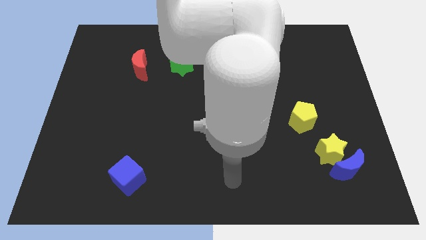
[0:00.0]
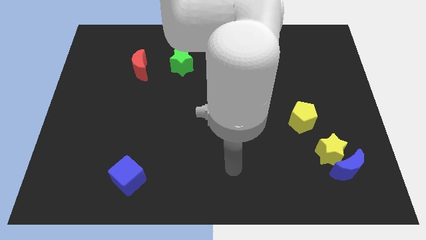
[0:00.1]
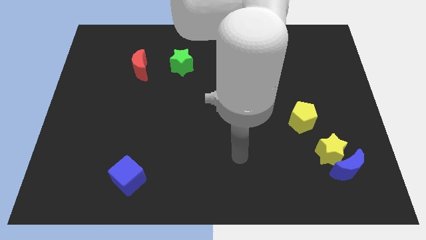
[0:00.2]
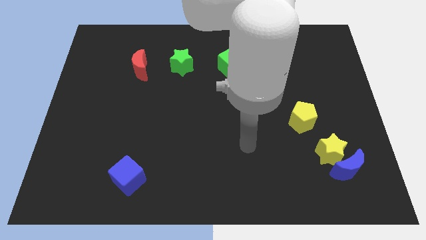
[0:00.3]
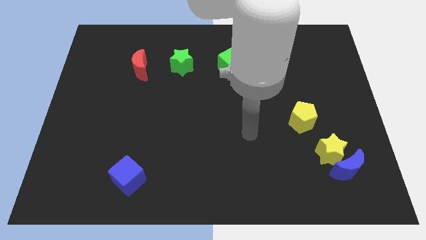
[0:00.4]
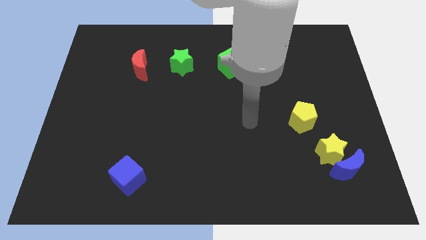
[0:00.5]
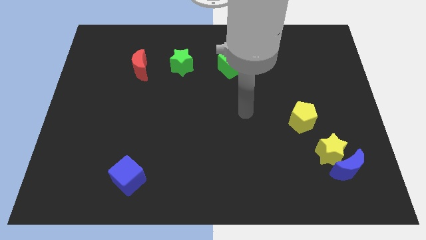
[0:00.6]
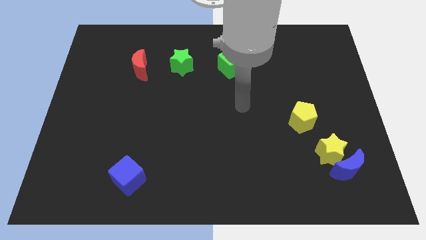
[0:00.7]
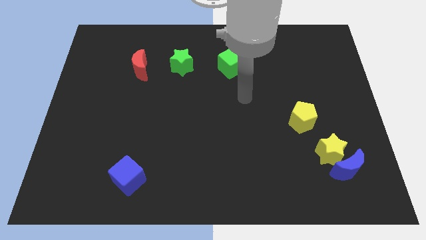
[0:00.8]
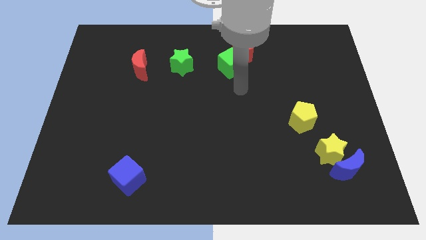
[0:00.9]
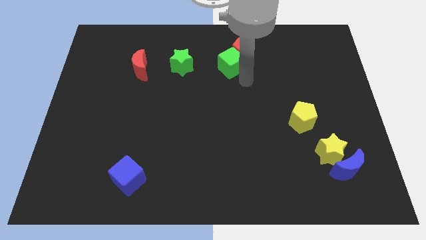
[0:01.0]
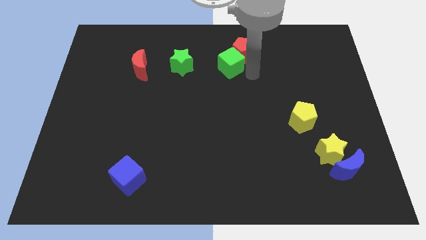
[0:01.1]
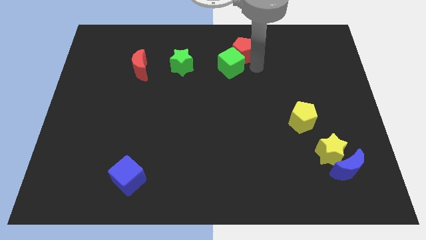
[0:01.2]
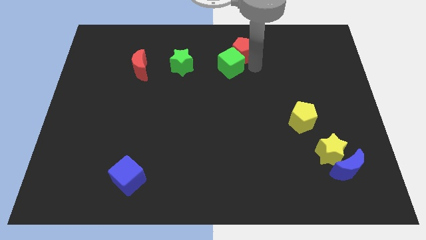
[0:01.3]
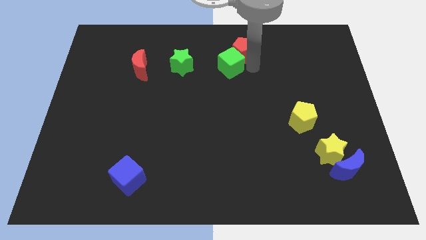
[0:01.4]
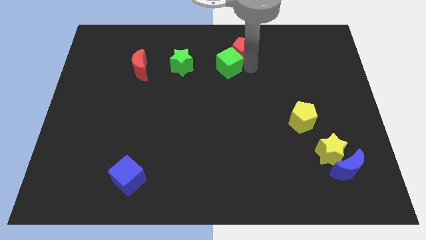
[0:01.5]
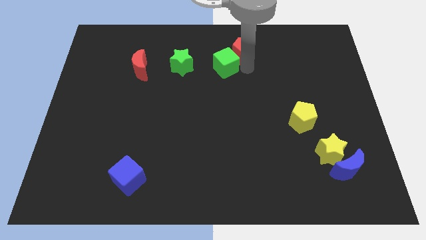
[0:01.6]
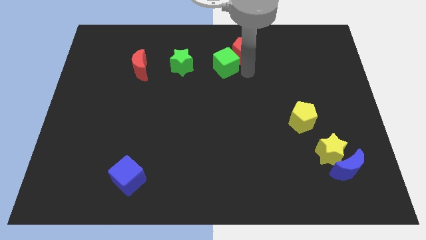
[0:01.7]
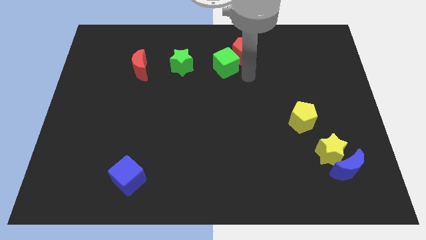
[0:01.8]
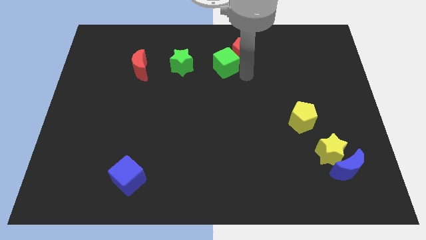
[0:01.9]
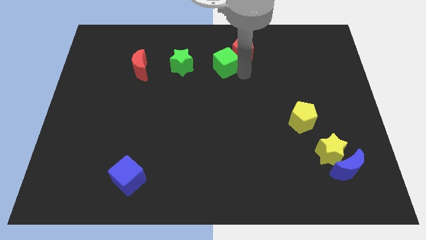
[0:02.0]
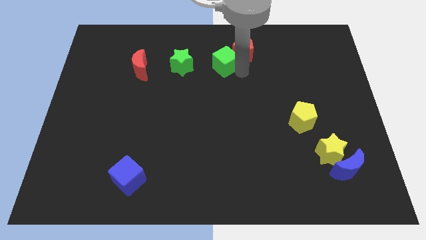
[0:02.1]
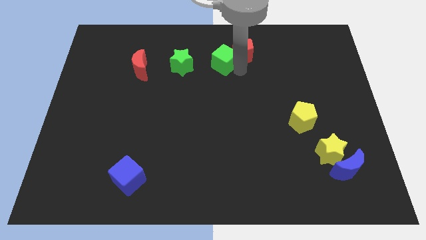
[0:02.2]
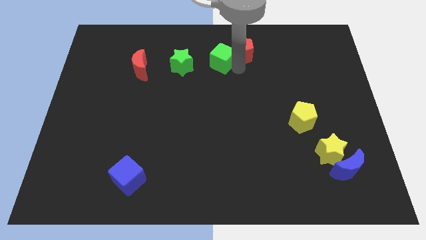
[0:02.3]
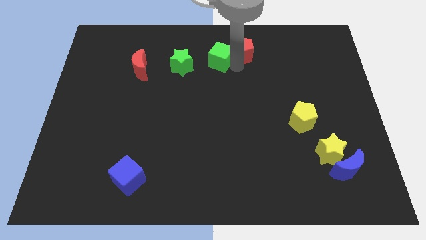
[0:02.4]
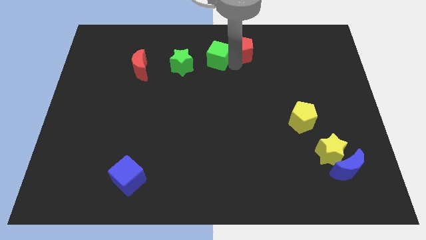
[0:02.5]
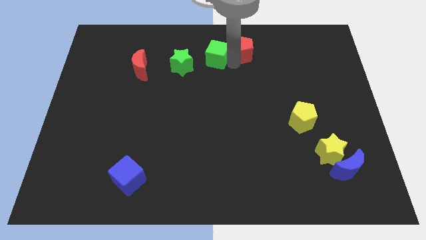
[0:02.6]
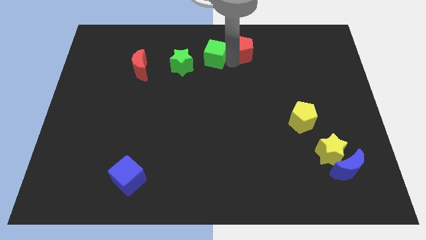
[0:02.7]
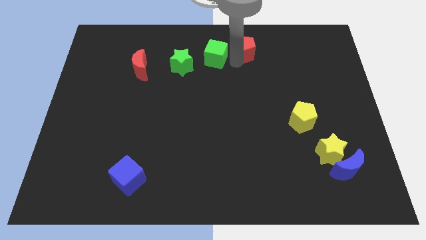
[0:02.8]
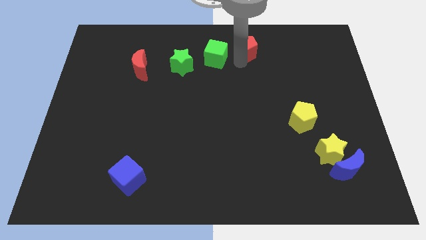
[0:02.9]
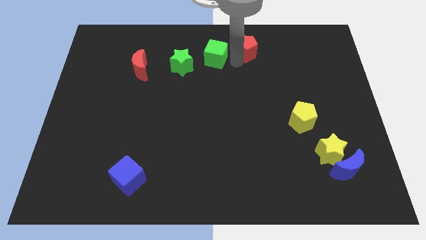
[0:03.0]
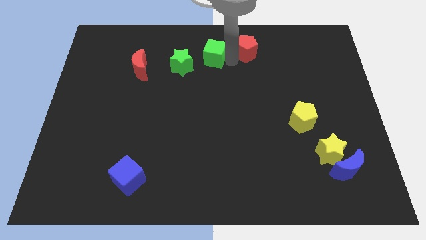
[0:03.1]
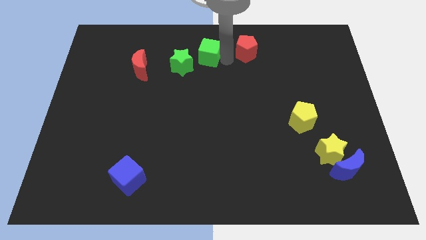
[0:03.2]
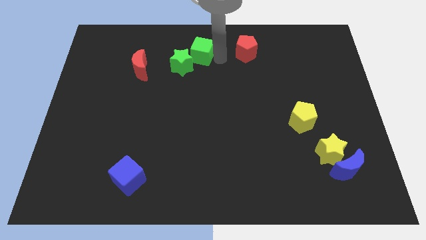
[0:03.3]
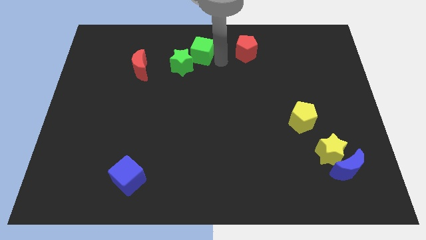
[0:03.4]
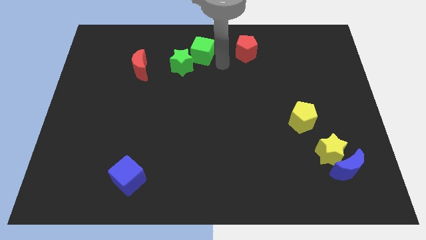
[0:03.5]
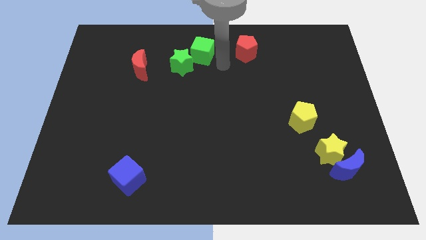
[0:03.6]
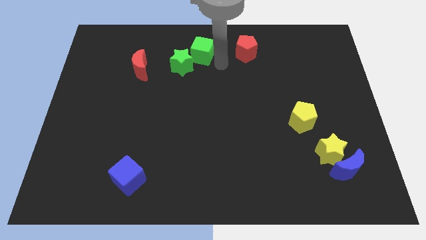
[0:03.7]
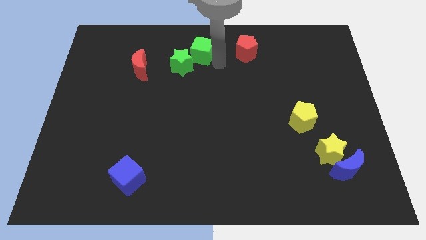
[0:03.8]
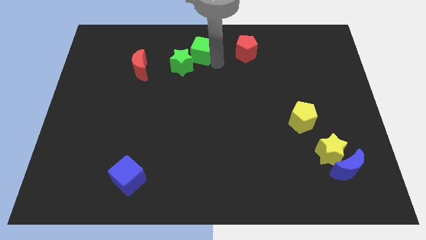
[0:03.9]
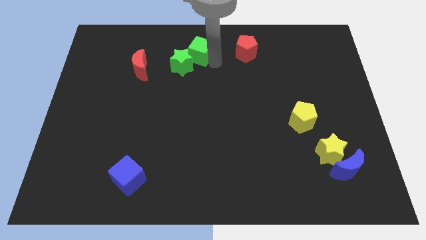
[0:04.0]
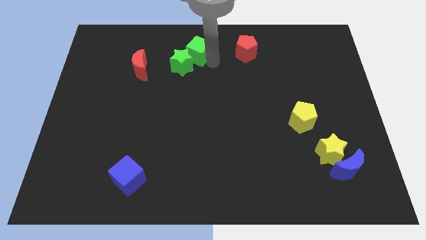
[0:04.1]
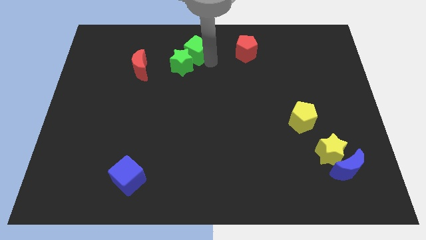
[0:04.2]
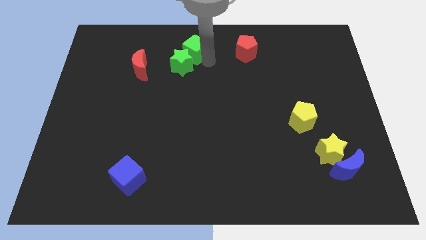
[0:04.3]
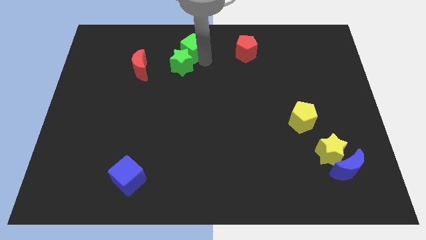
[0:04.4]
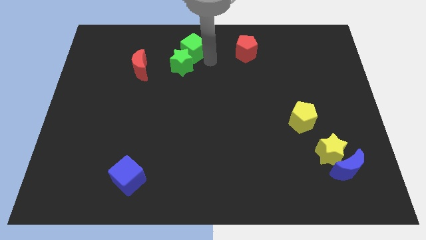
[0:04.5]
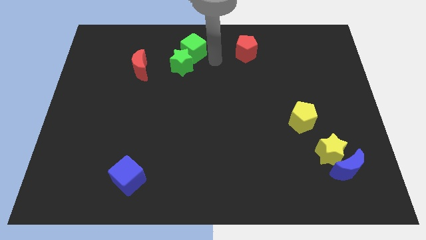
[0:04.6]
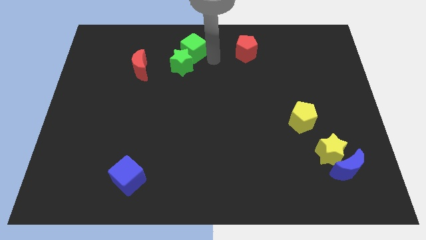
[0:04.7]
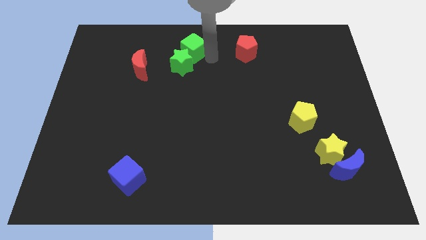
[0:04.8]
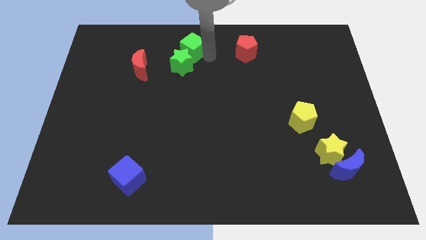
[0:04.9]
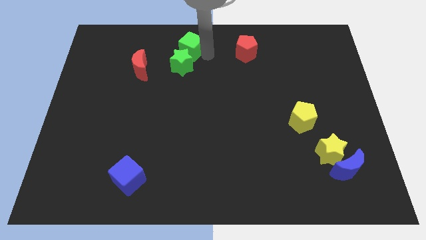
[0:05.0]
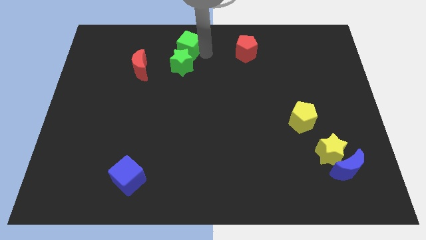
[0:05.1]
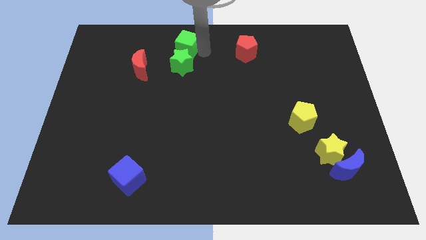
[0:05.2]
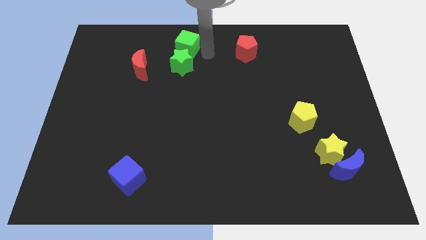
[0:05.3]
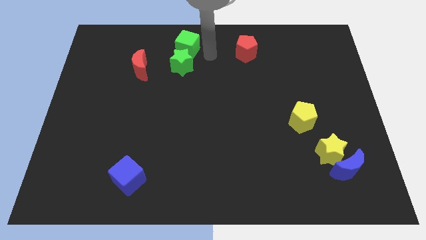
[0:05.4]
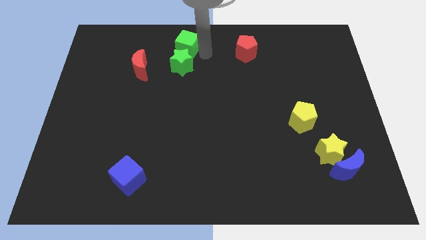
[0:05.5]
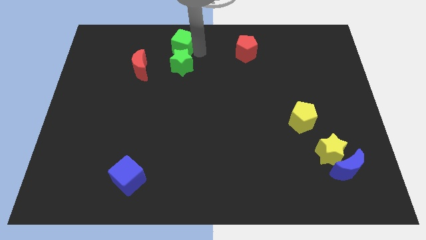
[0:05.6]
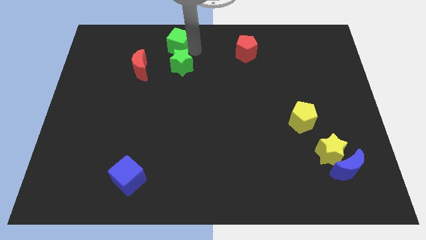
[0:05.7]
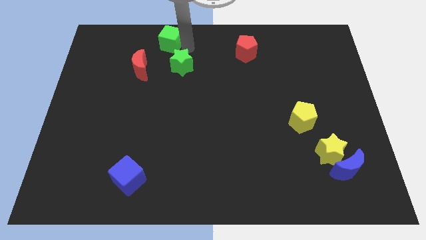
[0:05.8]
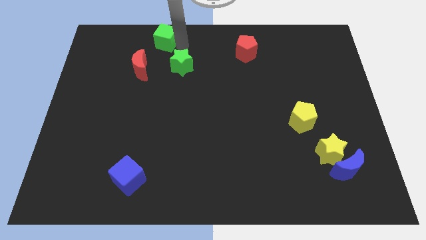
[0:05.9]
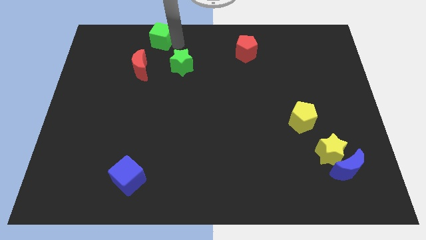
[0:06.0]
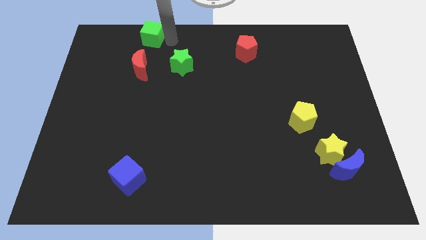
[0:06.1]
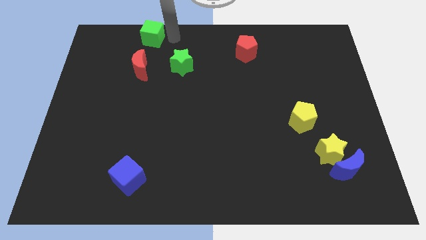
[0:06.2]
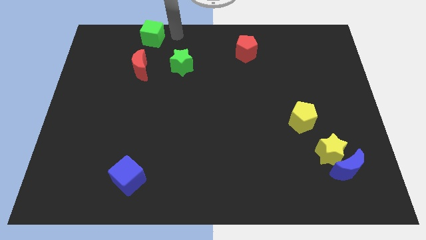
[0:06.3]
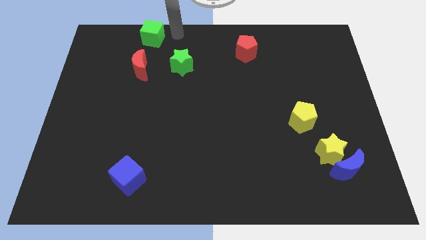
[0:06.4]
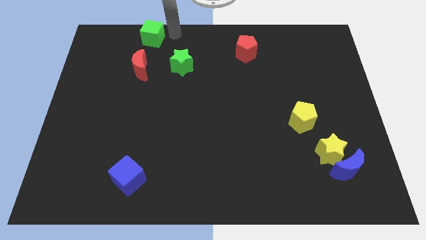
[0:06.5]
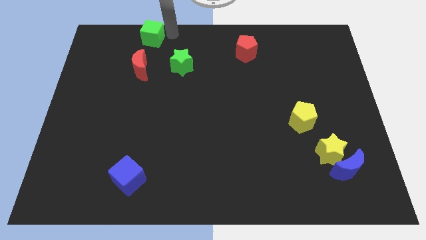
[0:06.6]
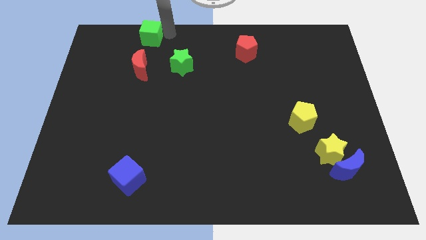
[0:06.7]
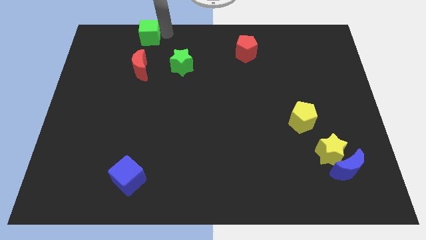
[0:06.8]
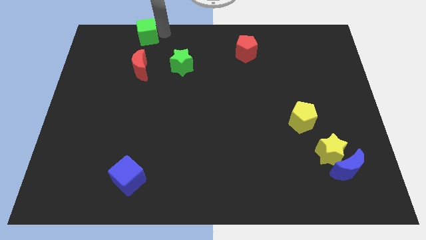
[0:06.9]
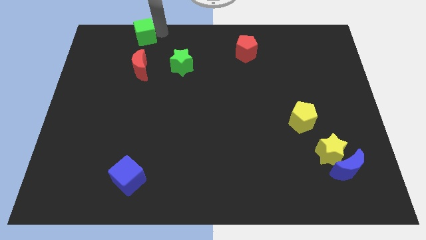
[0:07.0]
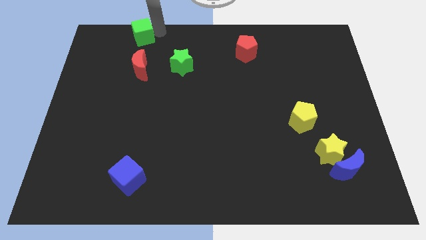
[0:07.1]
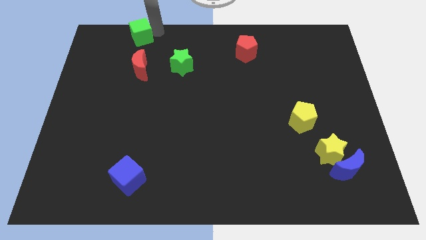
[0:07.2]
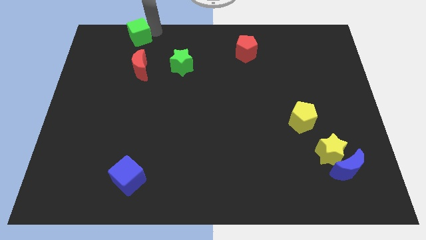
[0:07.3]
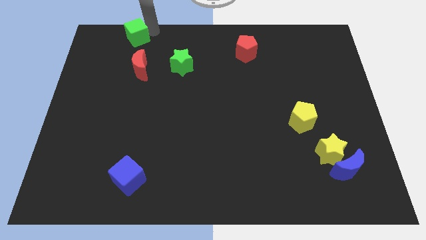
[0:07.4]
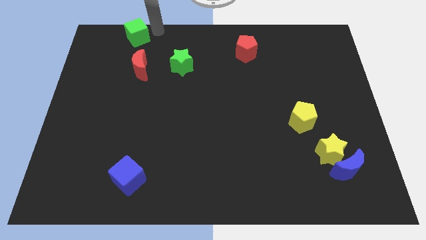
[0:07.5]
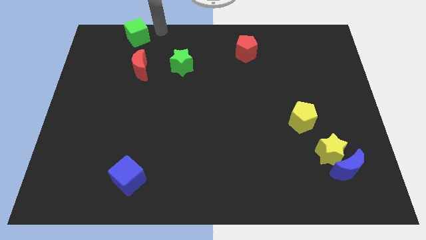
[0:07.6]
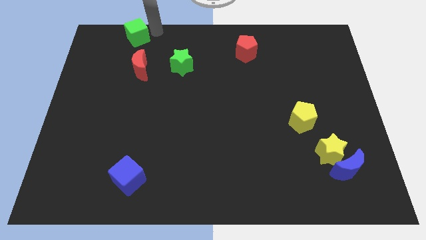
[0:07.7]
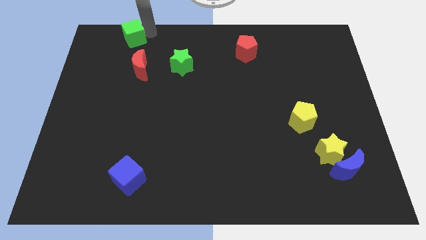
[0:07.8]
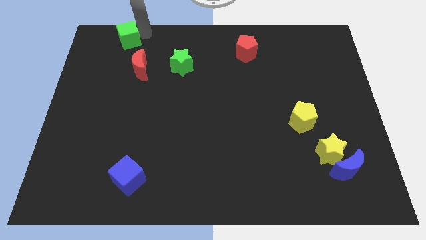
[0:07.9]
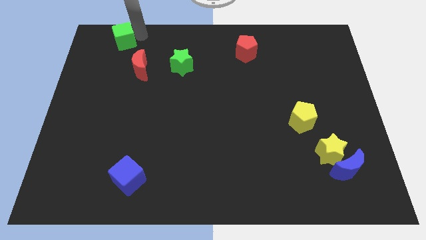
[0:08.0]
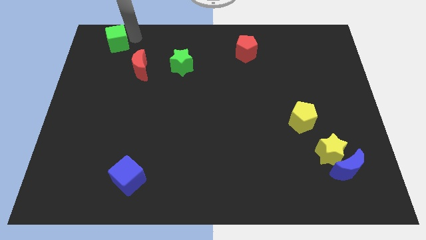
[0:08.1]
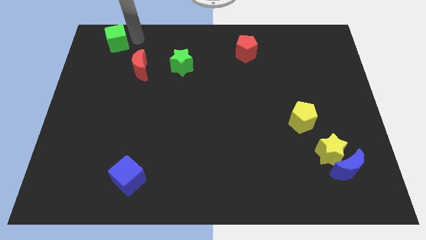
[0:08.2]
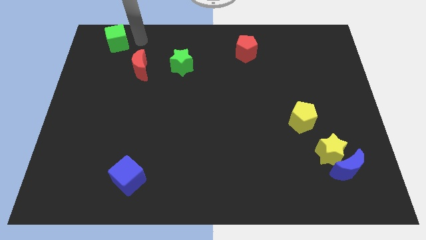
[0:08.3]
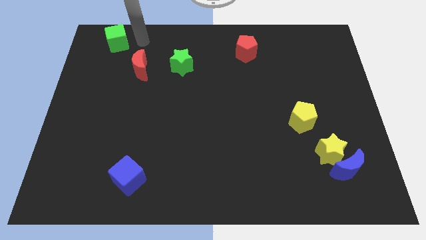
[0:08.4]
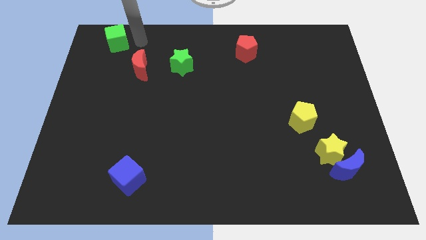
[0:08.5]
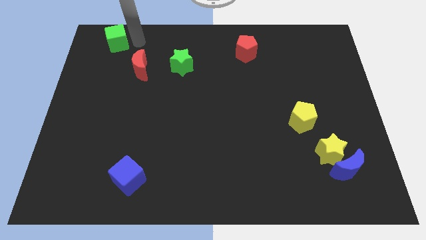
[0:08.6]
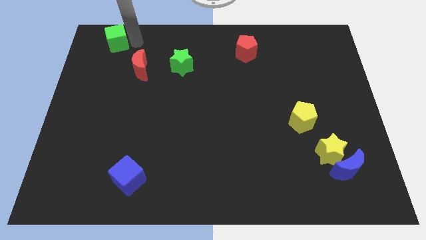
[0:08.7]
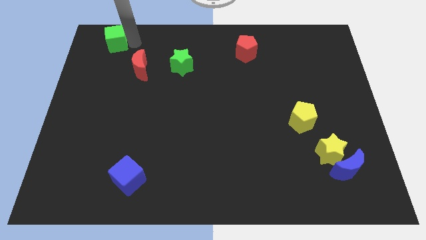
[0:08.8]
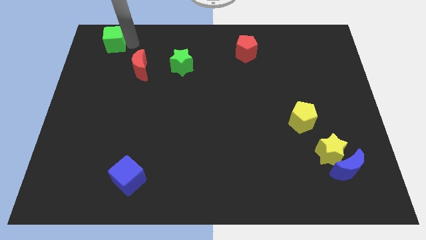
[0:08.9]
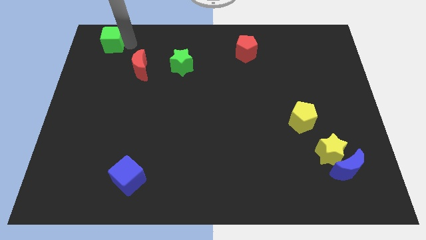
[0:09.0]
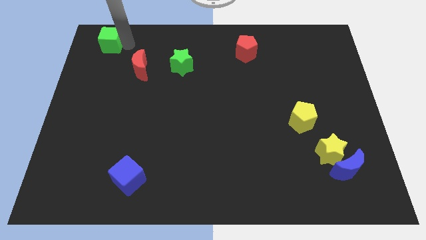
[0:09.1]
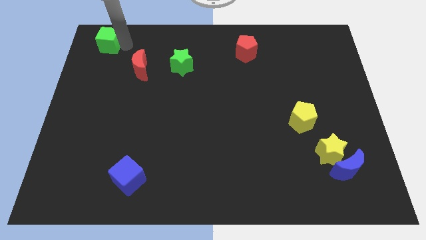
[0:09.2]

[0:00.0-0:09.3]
slide the green cube to the top left
